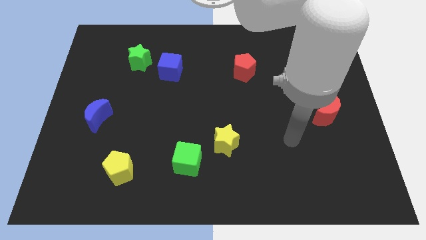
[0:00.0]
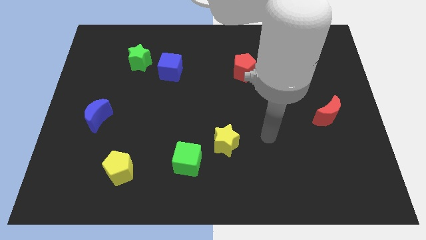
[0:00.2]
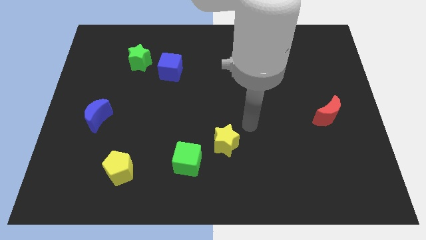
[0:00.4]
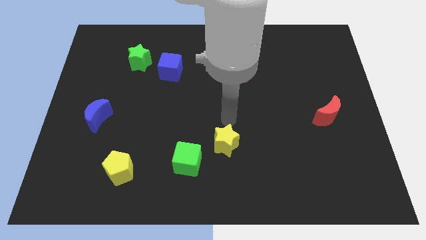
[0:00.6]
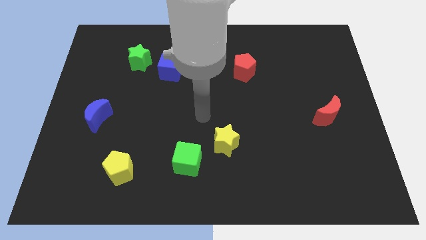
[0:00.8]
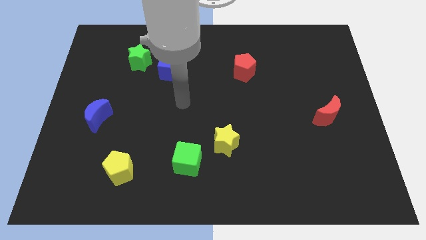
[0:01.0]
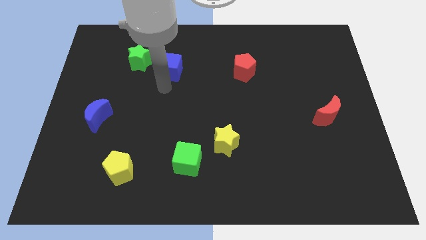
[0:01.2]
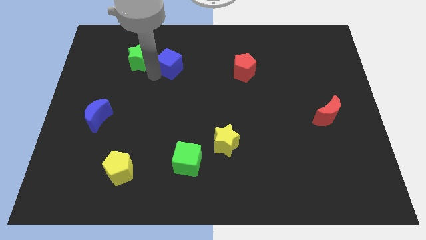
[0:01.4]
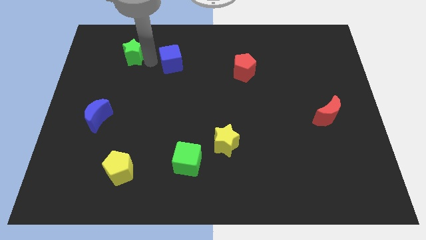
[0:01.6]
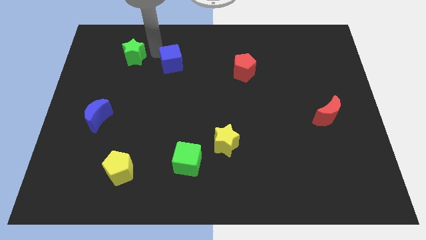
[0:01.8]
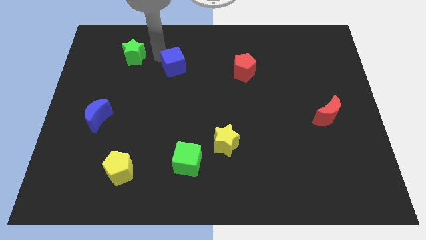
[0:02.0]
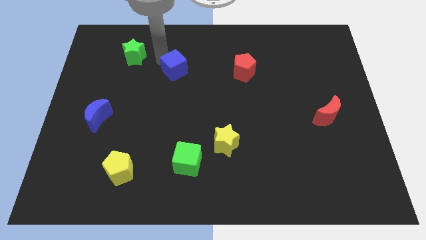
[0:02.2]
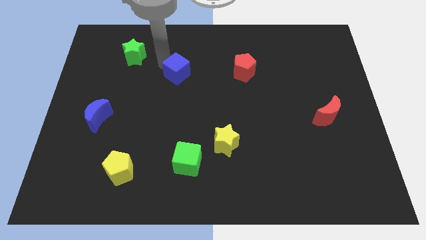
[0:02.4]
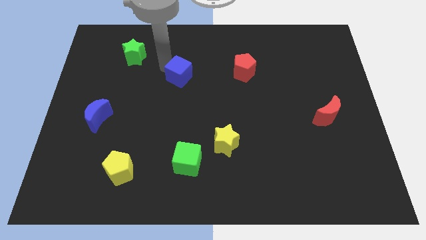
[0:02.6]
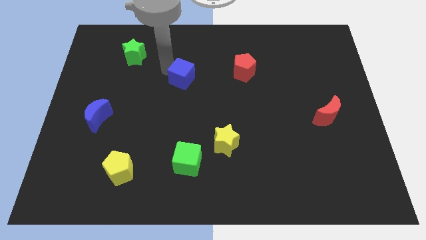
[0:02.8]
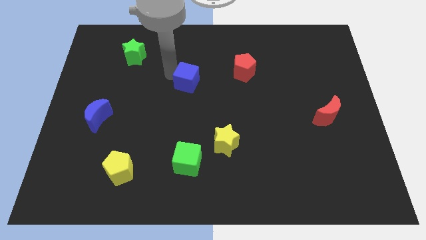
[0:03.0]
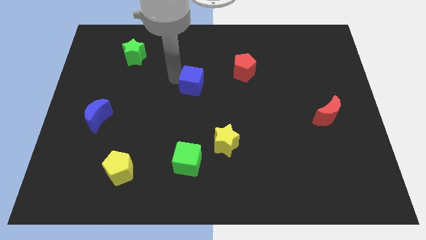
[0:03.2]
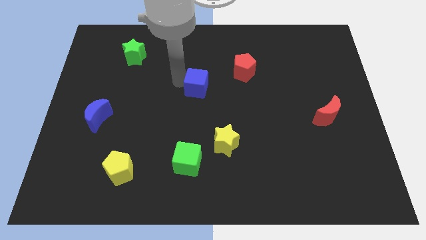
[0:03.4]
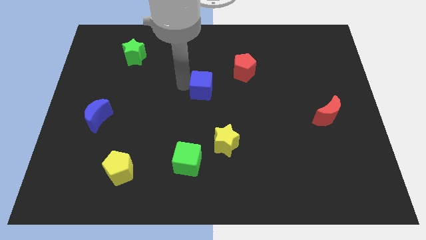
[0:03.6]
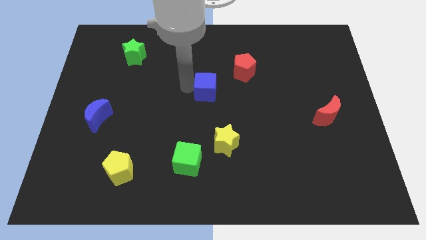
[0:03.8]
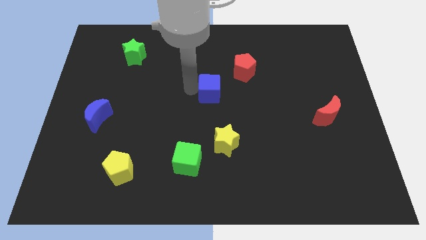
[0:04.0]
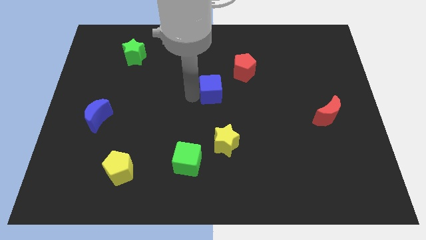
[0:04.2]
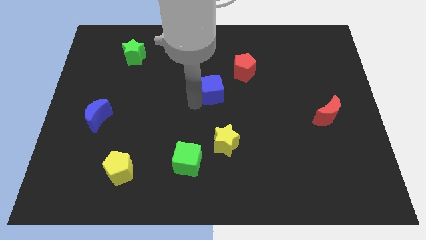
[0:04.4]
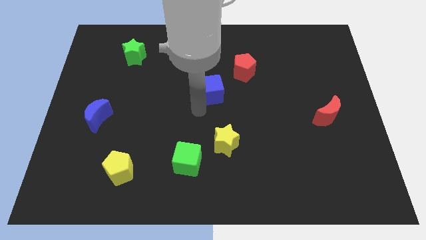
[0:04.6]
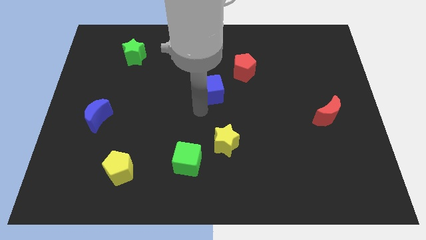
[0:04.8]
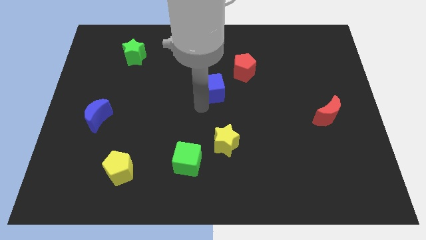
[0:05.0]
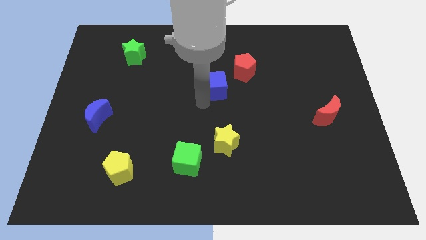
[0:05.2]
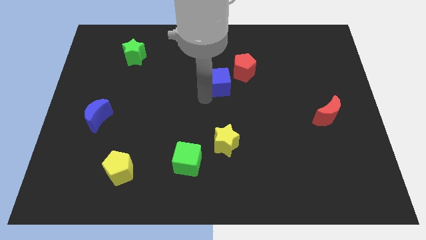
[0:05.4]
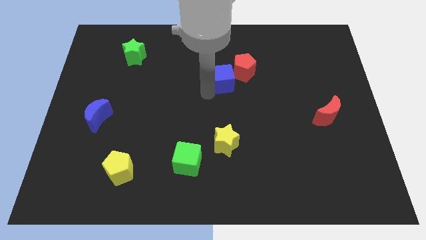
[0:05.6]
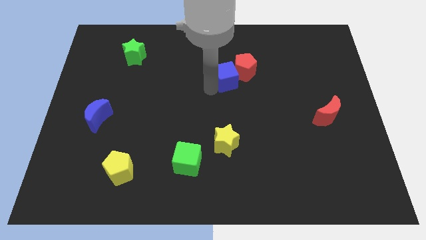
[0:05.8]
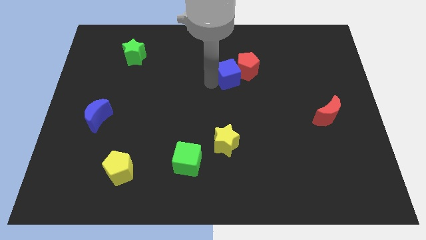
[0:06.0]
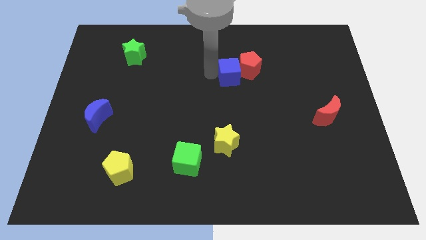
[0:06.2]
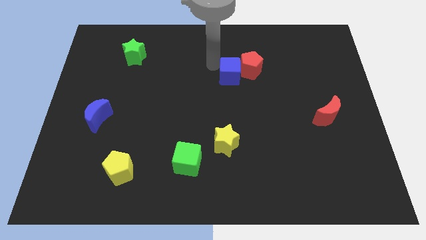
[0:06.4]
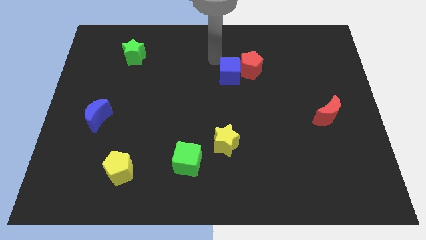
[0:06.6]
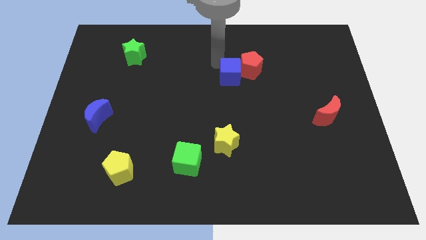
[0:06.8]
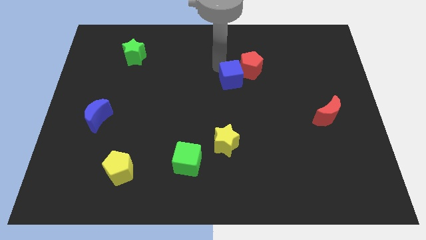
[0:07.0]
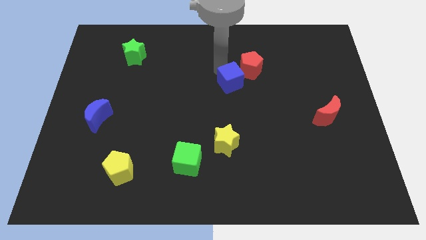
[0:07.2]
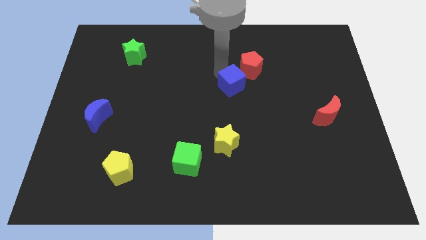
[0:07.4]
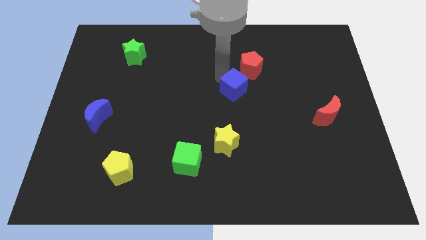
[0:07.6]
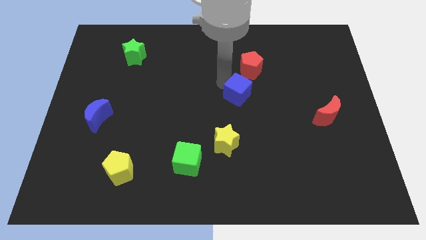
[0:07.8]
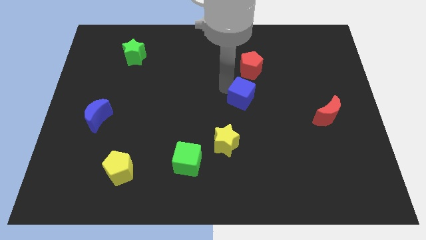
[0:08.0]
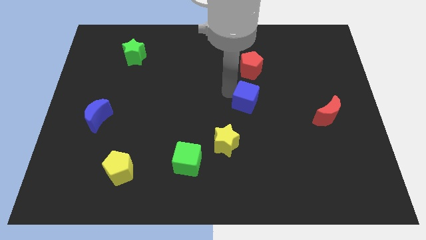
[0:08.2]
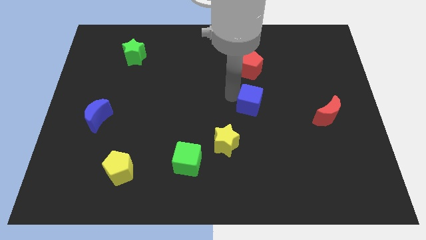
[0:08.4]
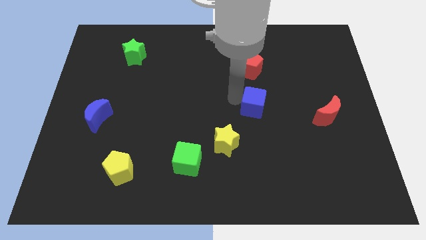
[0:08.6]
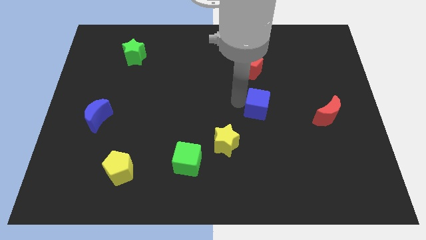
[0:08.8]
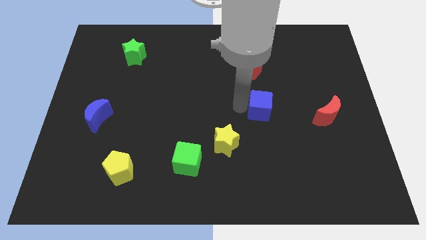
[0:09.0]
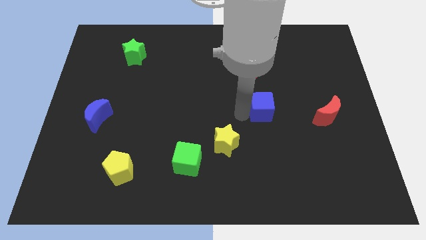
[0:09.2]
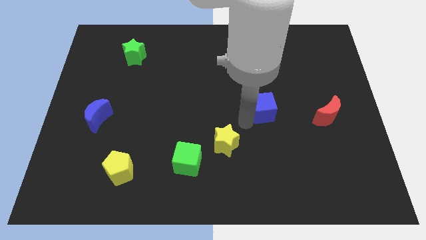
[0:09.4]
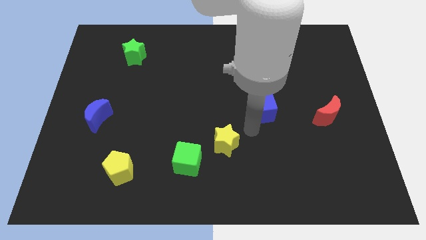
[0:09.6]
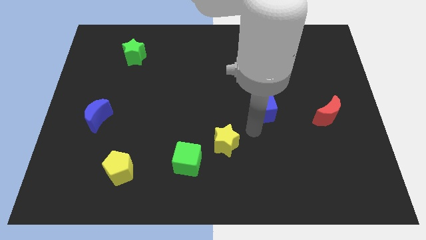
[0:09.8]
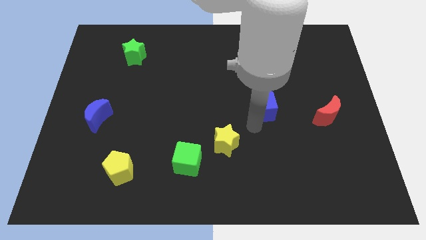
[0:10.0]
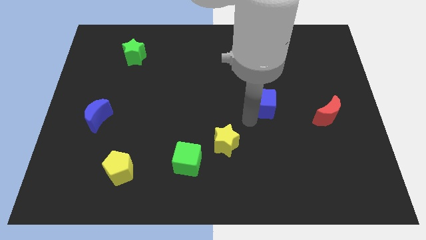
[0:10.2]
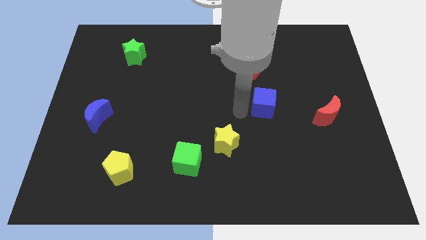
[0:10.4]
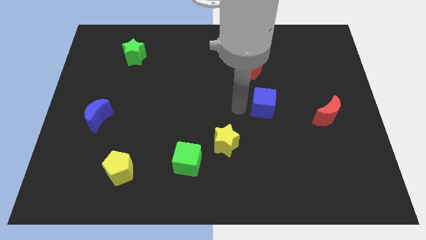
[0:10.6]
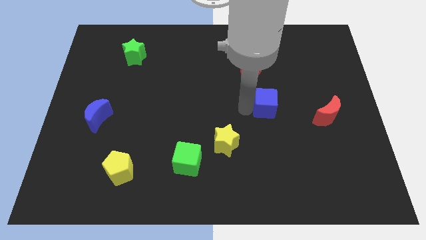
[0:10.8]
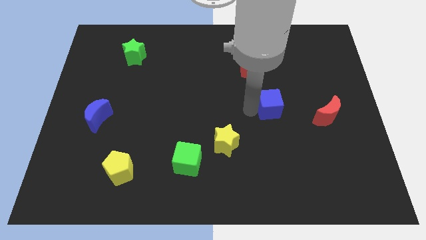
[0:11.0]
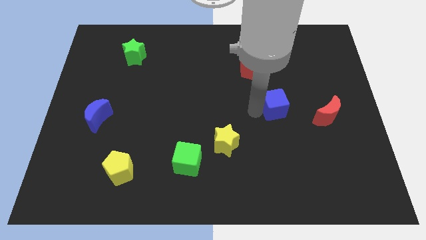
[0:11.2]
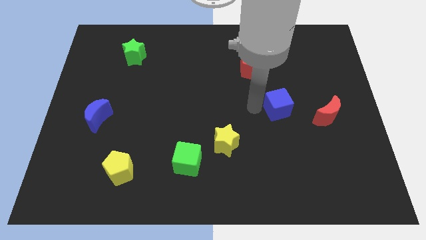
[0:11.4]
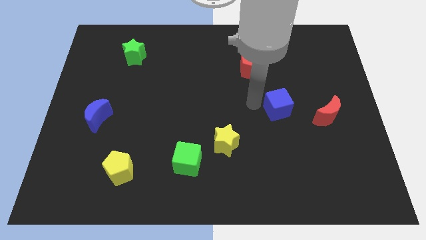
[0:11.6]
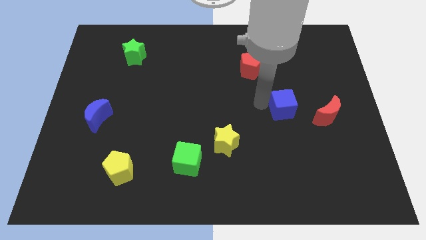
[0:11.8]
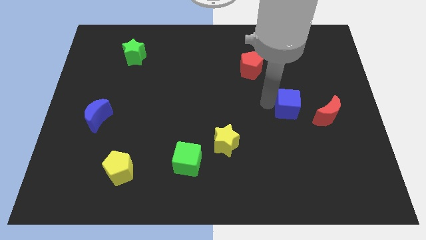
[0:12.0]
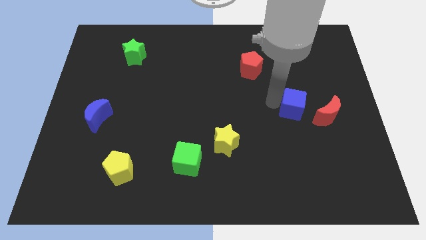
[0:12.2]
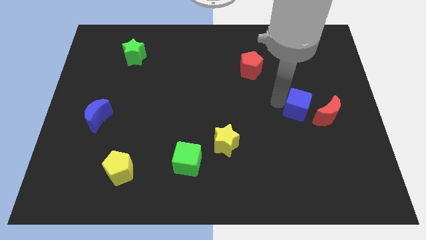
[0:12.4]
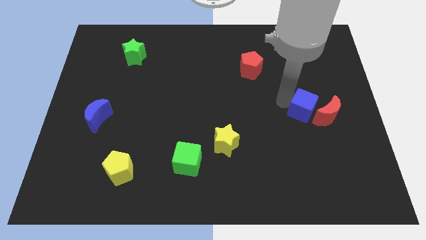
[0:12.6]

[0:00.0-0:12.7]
put the blue cube towards the red moon

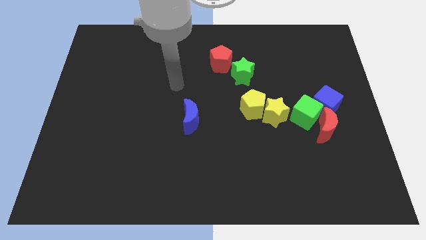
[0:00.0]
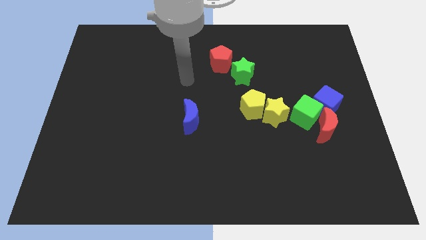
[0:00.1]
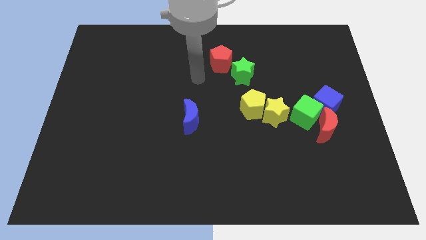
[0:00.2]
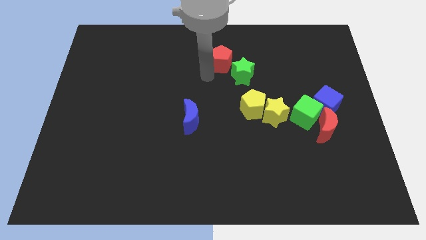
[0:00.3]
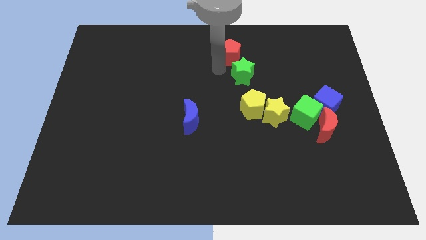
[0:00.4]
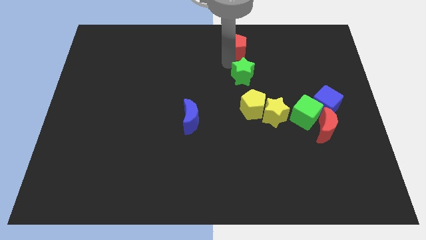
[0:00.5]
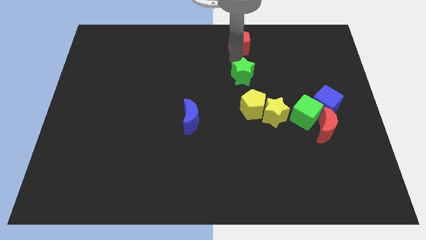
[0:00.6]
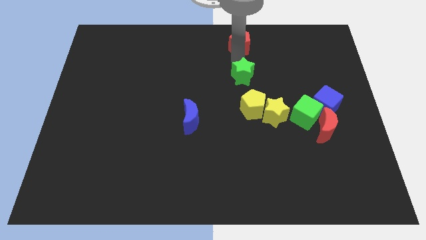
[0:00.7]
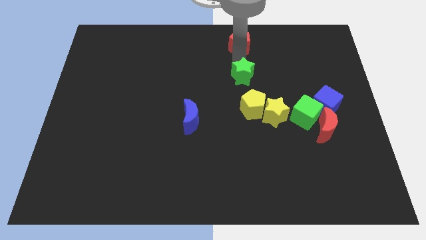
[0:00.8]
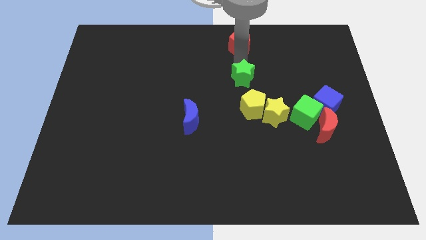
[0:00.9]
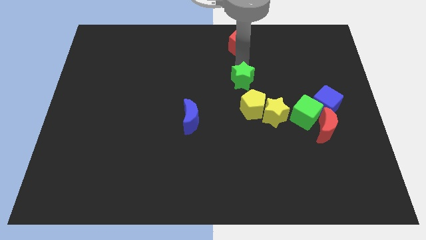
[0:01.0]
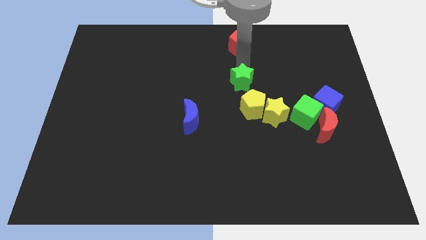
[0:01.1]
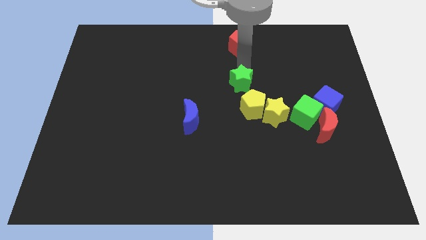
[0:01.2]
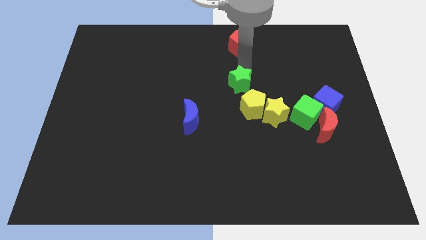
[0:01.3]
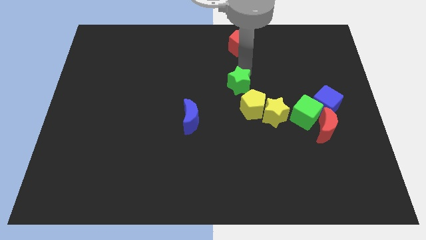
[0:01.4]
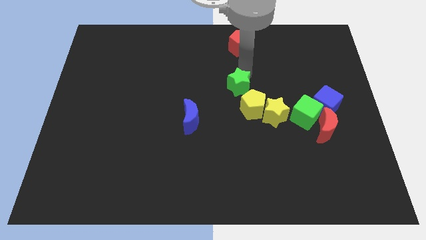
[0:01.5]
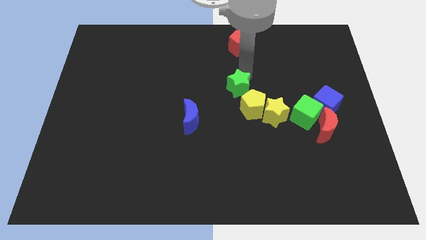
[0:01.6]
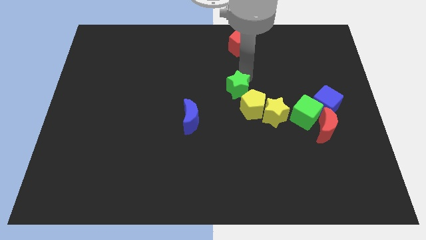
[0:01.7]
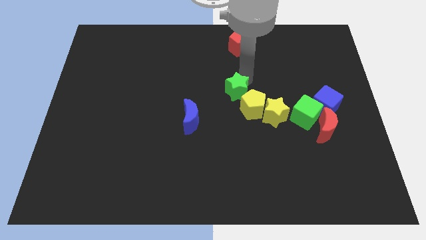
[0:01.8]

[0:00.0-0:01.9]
move the green star next to the yellow pentagon
